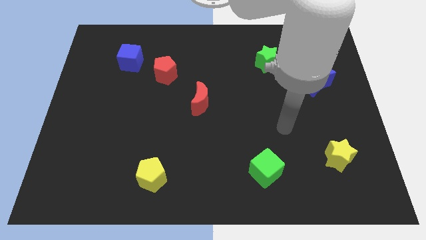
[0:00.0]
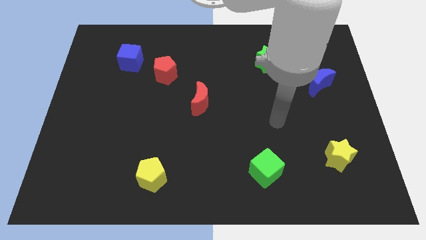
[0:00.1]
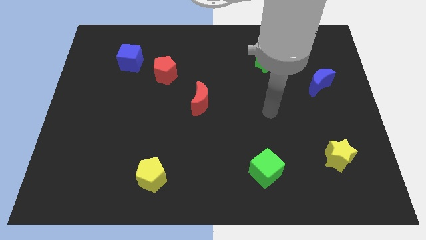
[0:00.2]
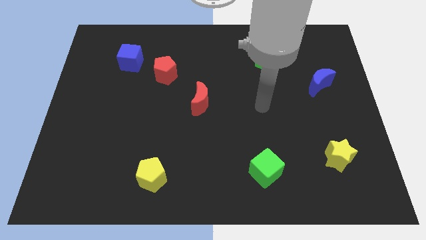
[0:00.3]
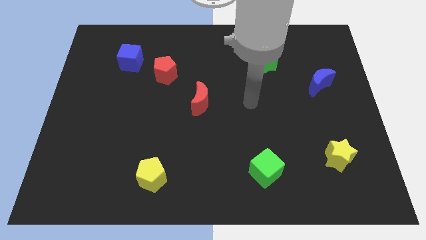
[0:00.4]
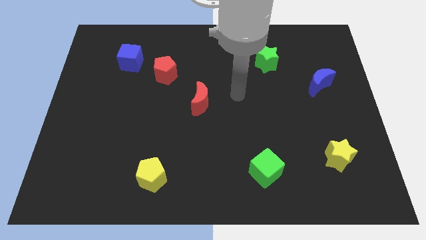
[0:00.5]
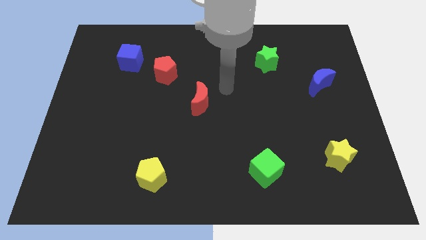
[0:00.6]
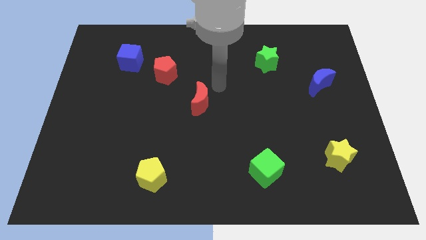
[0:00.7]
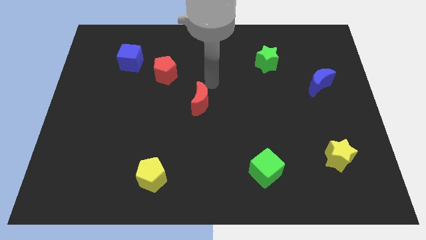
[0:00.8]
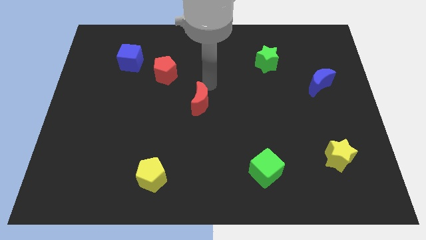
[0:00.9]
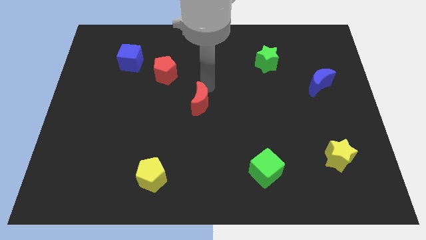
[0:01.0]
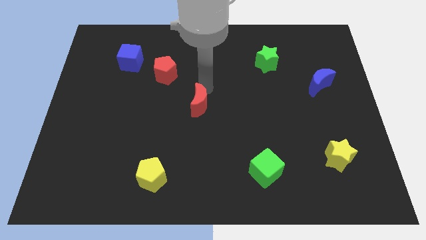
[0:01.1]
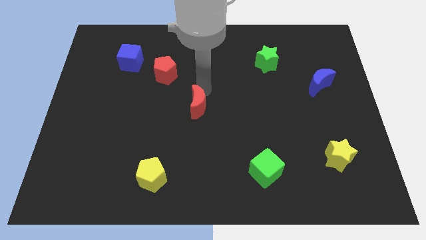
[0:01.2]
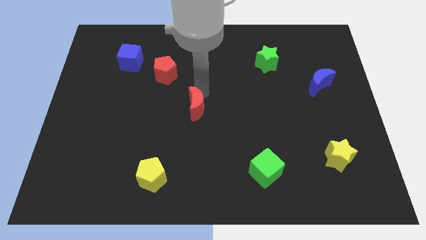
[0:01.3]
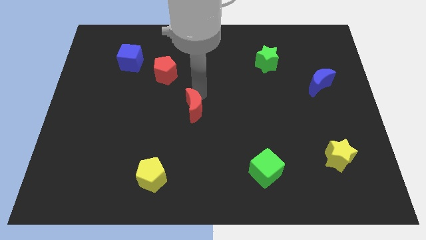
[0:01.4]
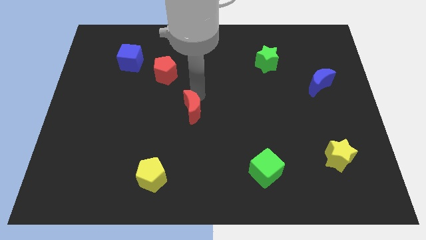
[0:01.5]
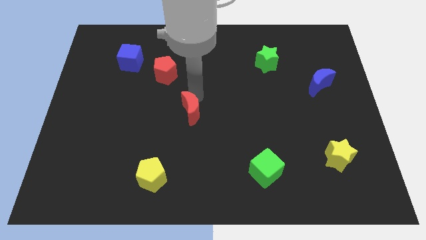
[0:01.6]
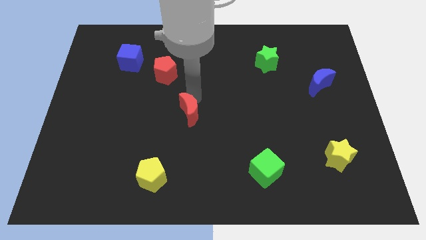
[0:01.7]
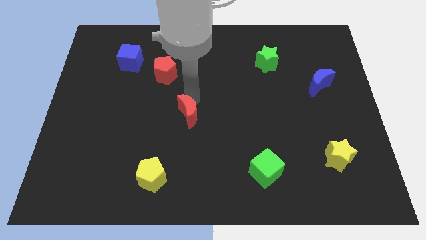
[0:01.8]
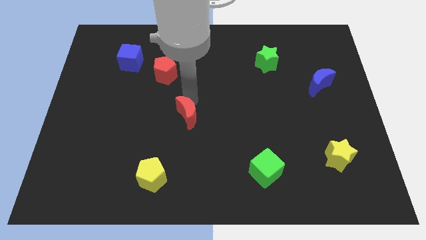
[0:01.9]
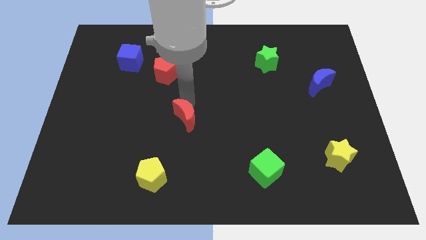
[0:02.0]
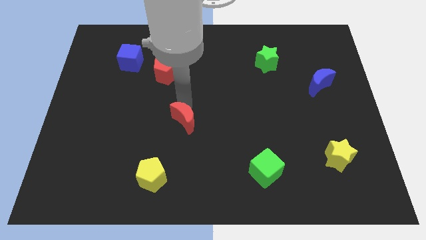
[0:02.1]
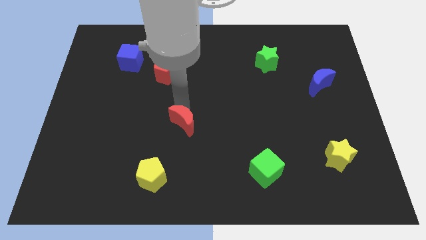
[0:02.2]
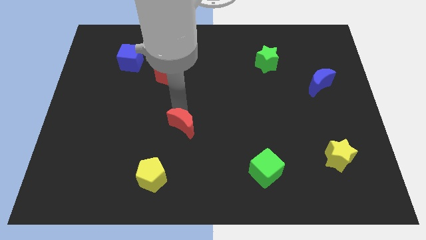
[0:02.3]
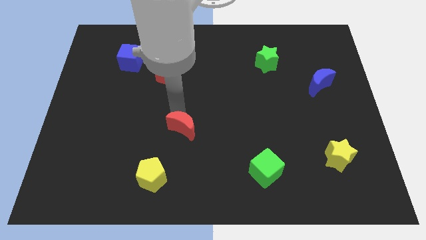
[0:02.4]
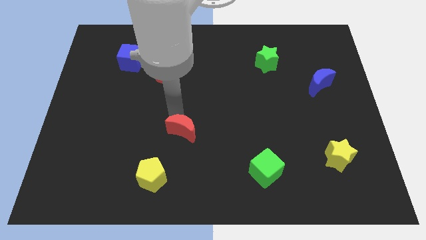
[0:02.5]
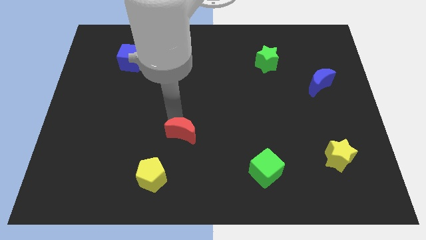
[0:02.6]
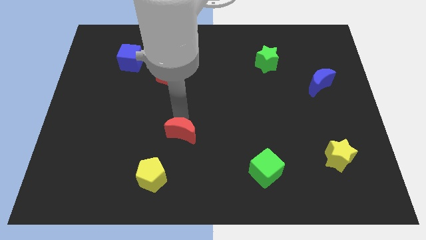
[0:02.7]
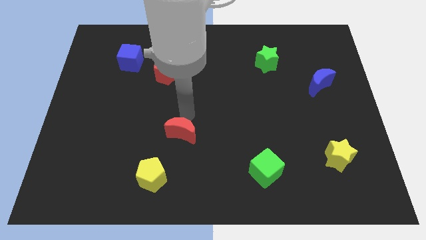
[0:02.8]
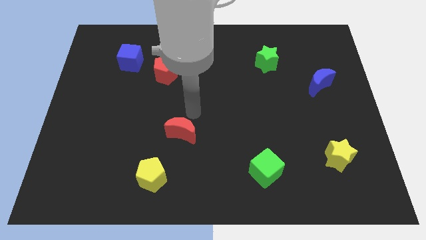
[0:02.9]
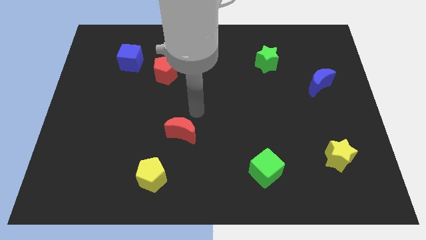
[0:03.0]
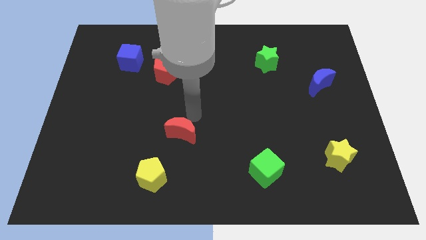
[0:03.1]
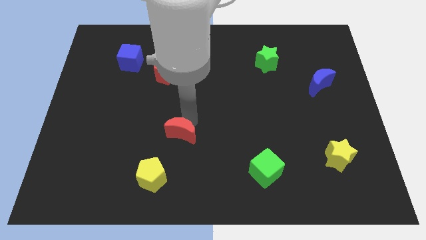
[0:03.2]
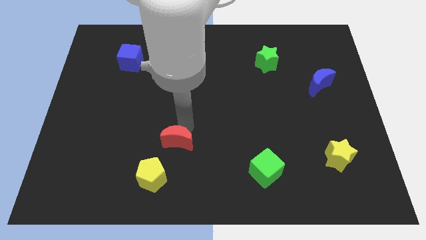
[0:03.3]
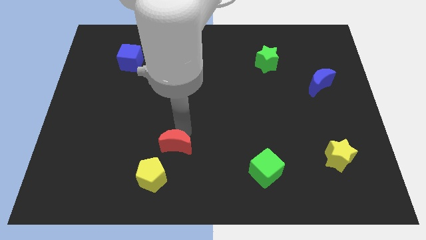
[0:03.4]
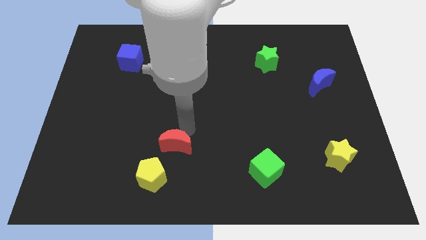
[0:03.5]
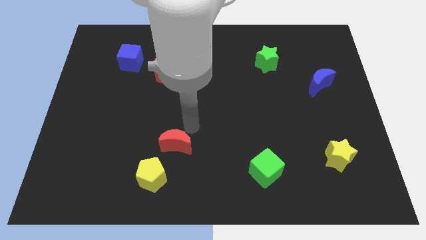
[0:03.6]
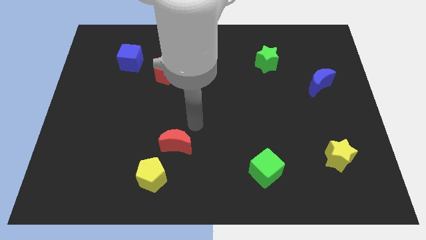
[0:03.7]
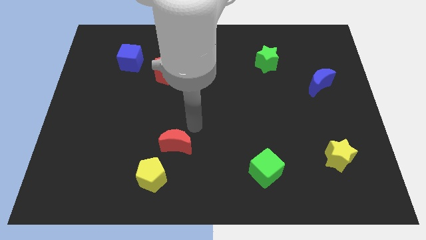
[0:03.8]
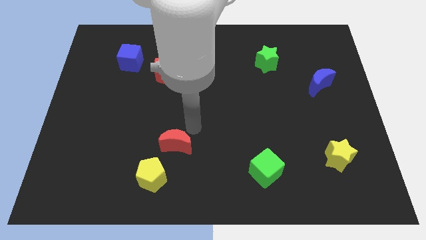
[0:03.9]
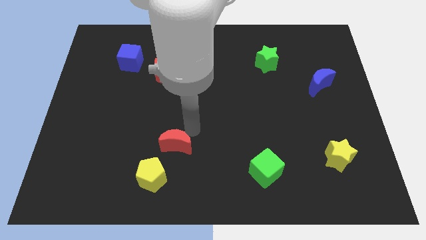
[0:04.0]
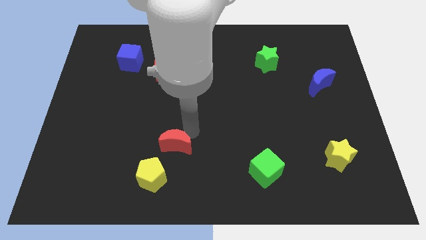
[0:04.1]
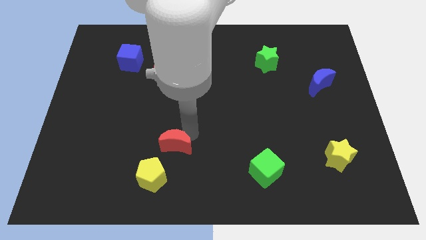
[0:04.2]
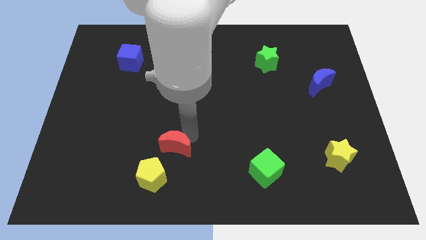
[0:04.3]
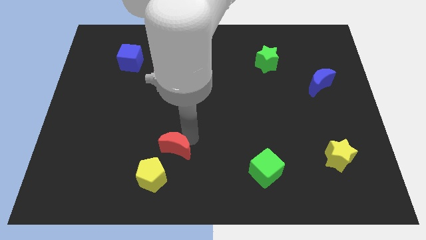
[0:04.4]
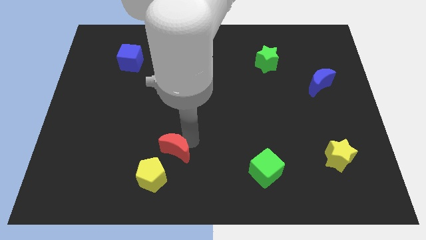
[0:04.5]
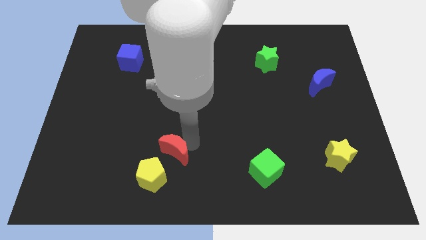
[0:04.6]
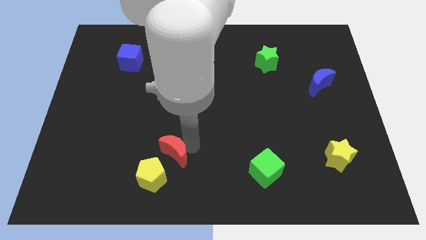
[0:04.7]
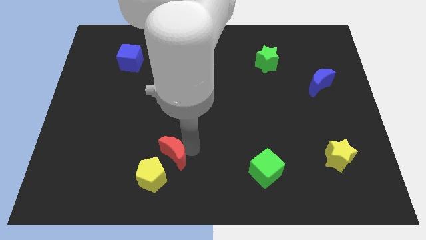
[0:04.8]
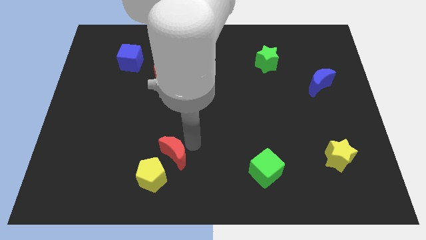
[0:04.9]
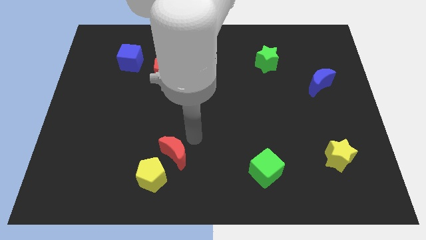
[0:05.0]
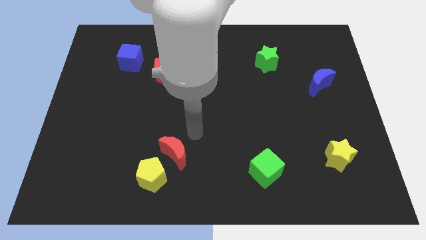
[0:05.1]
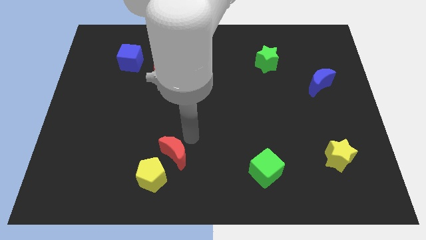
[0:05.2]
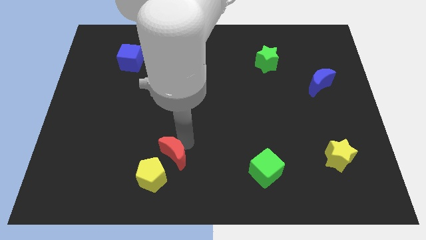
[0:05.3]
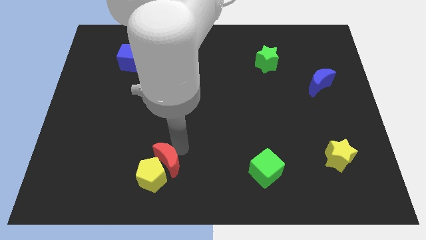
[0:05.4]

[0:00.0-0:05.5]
slide the red moon towards the yellow pentagon

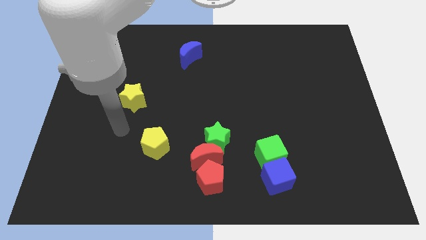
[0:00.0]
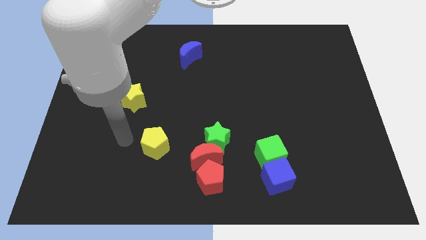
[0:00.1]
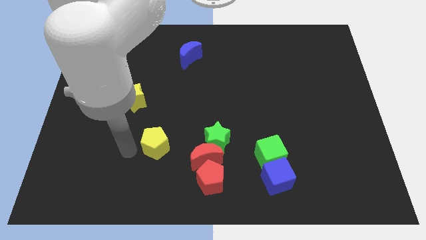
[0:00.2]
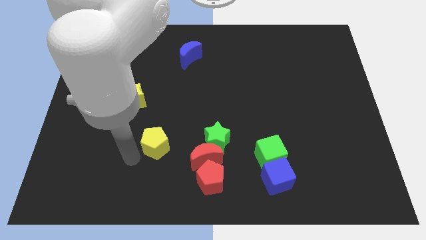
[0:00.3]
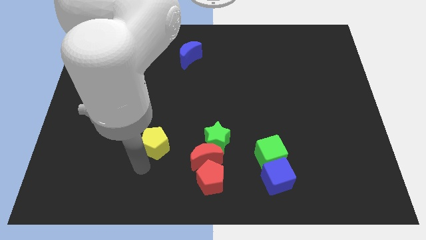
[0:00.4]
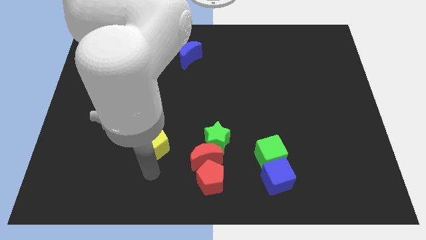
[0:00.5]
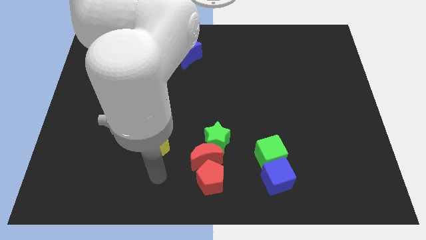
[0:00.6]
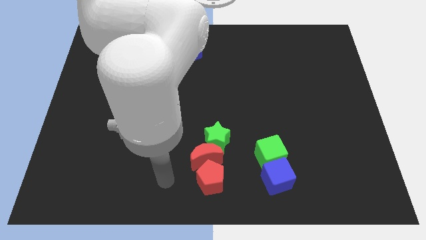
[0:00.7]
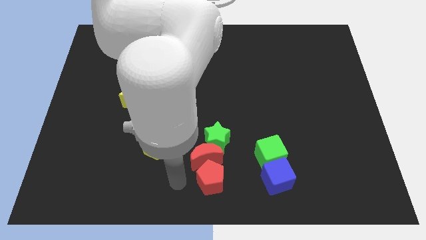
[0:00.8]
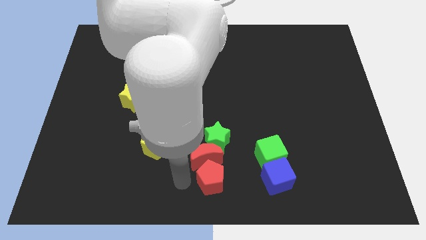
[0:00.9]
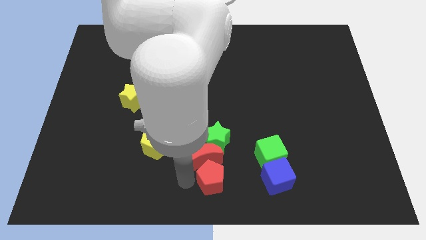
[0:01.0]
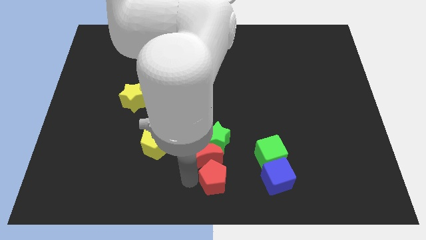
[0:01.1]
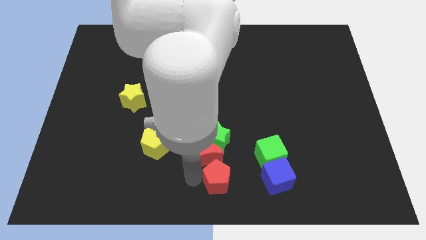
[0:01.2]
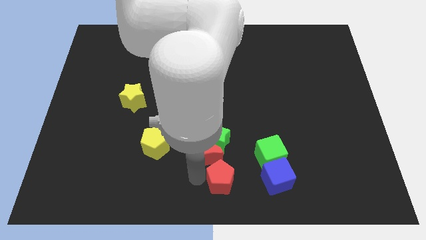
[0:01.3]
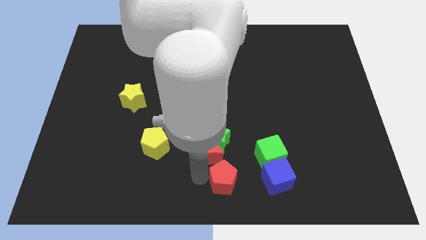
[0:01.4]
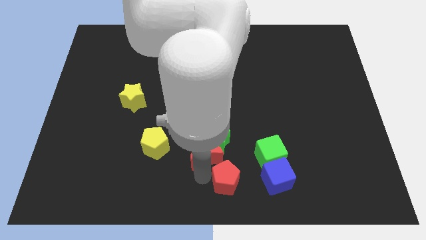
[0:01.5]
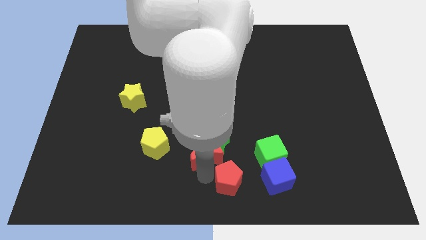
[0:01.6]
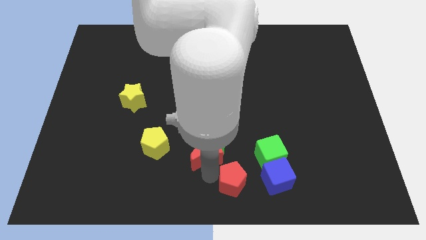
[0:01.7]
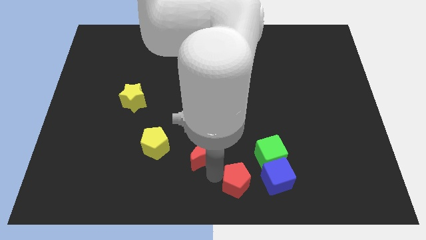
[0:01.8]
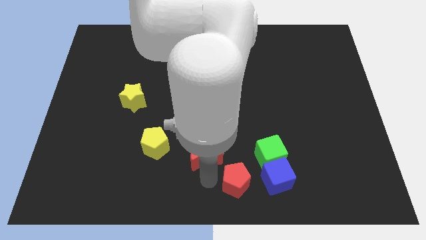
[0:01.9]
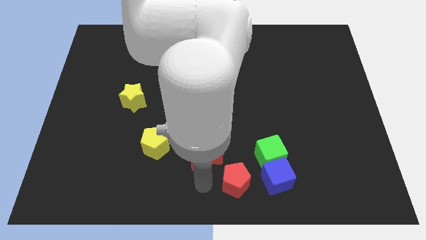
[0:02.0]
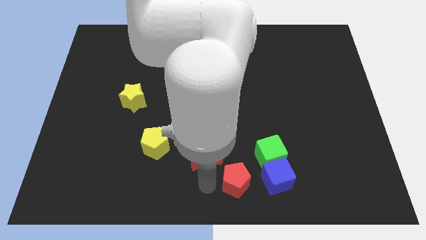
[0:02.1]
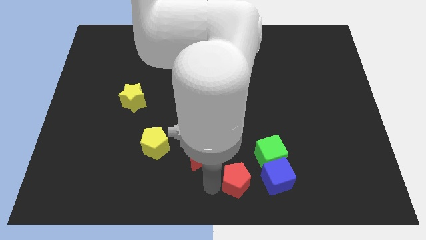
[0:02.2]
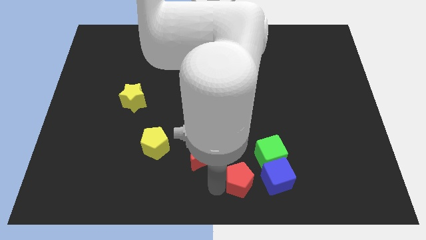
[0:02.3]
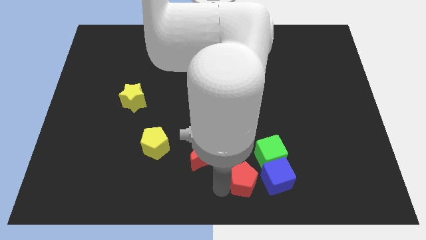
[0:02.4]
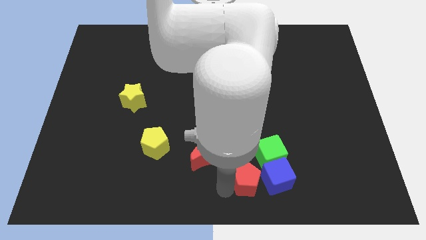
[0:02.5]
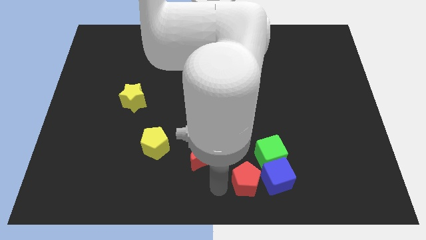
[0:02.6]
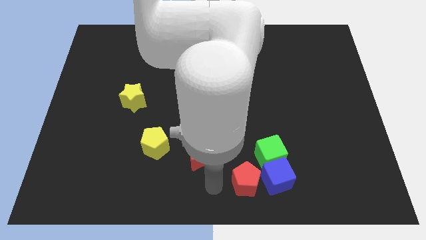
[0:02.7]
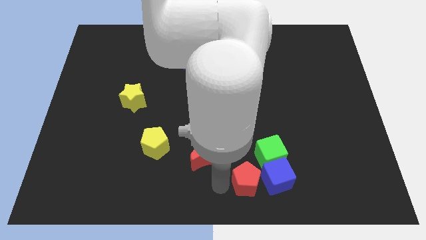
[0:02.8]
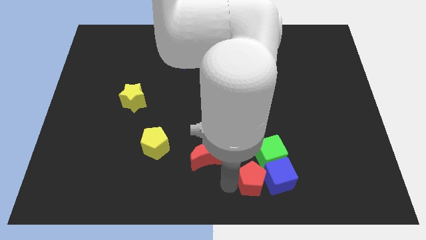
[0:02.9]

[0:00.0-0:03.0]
slide the red pentagon to the blue cube
